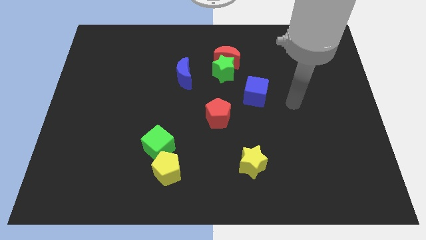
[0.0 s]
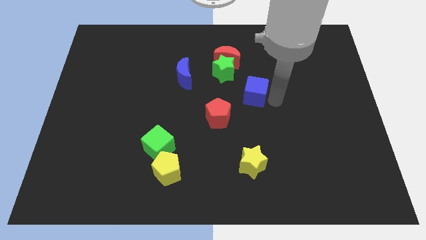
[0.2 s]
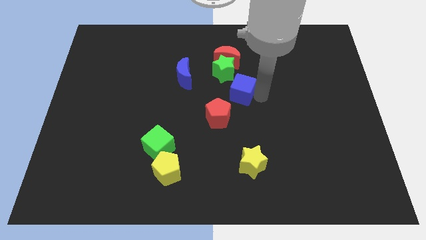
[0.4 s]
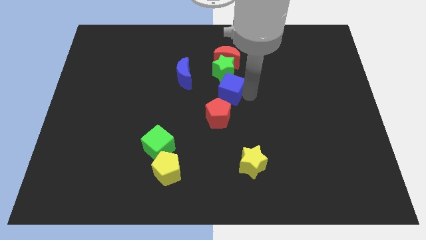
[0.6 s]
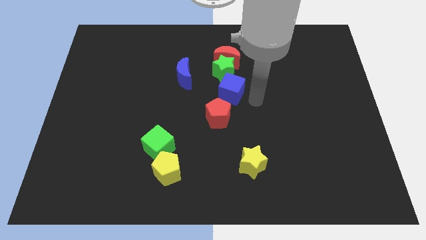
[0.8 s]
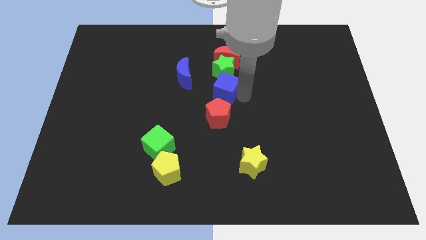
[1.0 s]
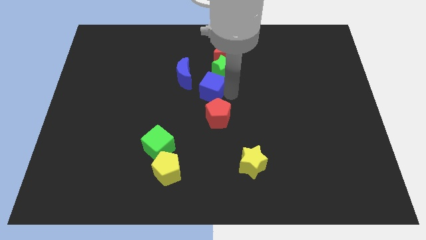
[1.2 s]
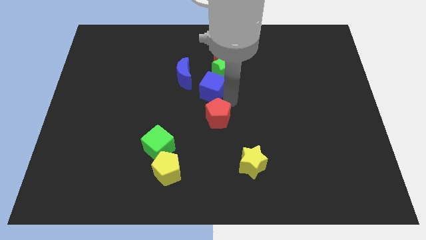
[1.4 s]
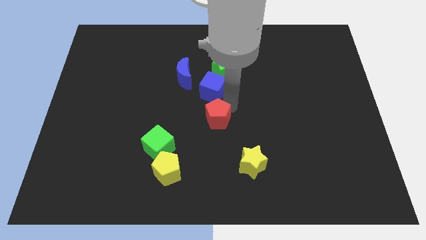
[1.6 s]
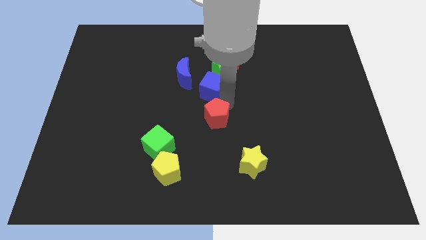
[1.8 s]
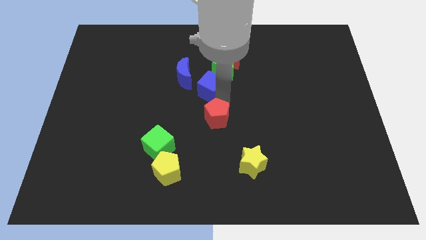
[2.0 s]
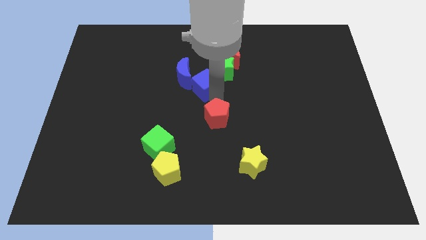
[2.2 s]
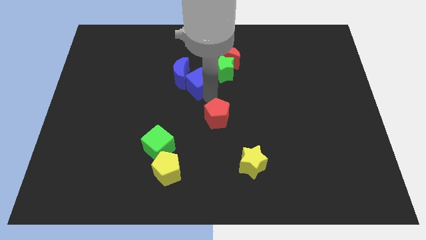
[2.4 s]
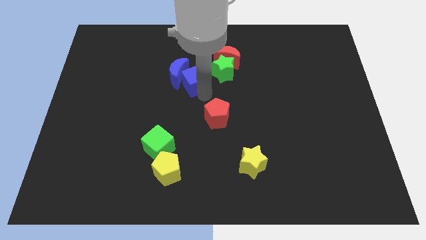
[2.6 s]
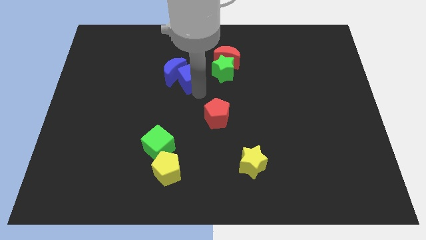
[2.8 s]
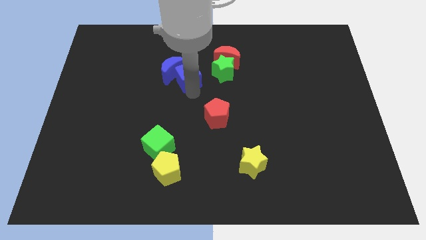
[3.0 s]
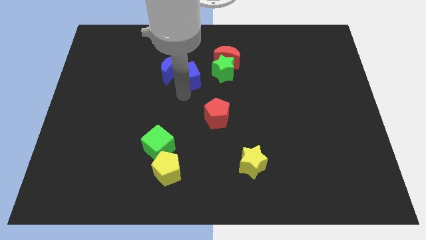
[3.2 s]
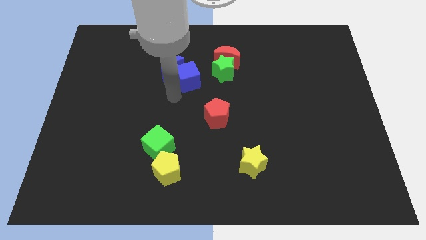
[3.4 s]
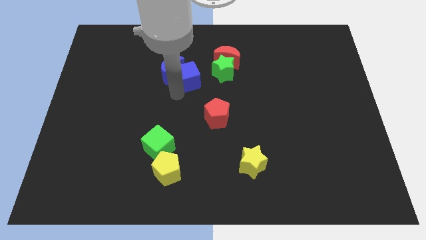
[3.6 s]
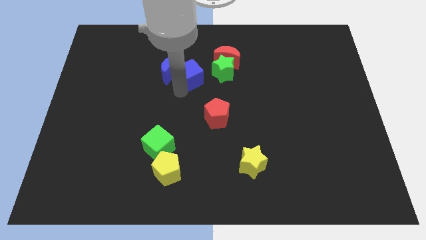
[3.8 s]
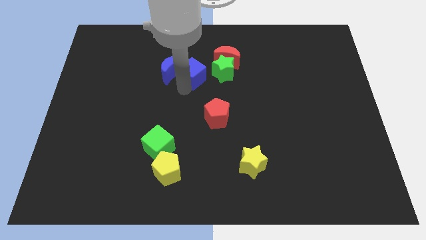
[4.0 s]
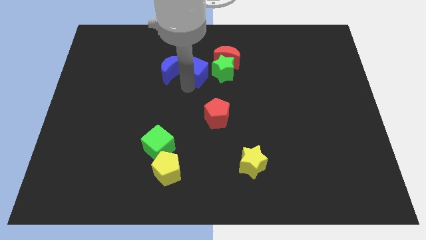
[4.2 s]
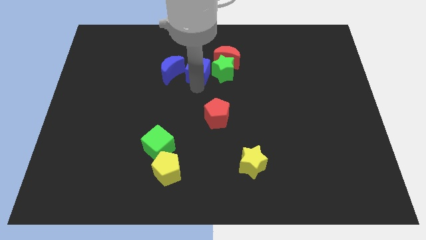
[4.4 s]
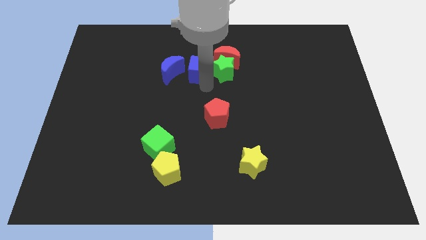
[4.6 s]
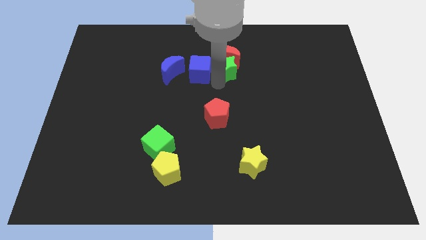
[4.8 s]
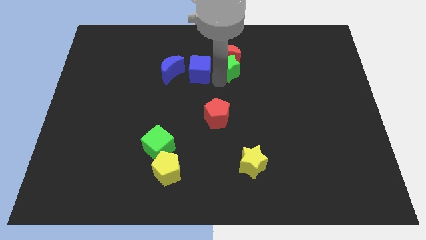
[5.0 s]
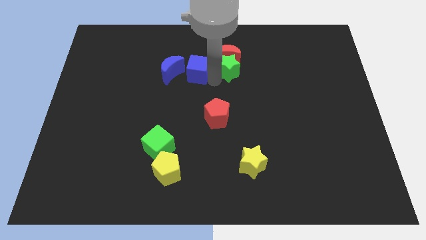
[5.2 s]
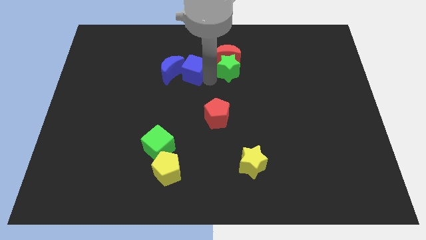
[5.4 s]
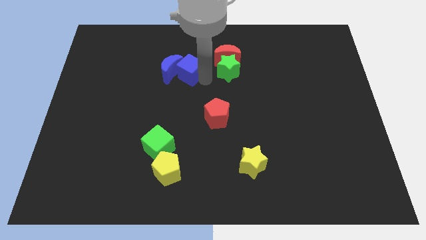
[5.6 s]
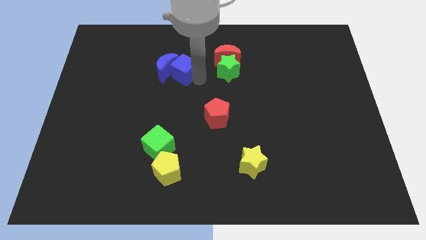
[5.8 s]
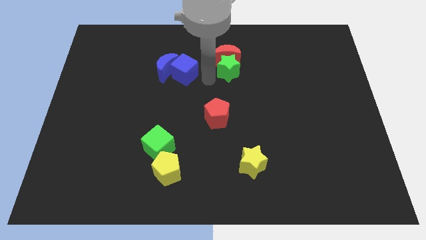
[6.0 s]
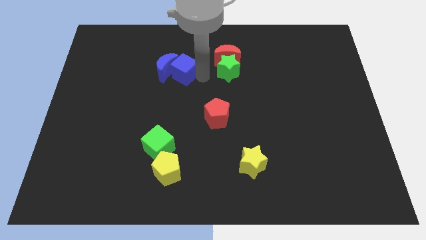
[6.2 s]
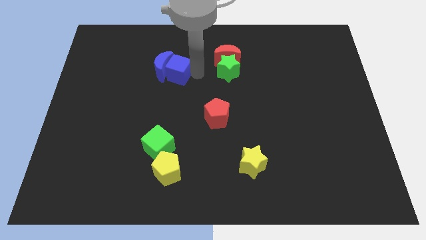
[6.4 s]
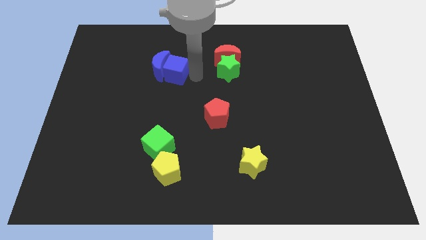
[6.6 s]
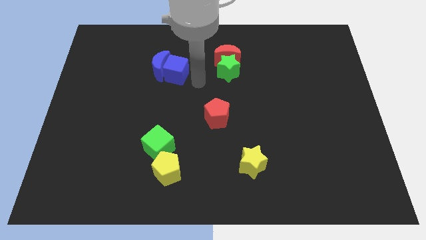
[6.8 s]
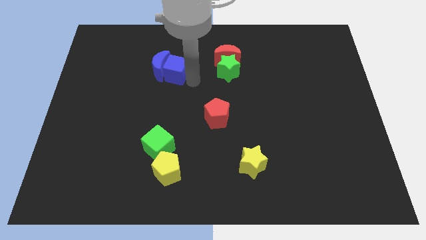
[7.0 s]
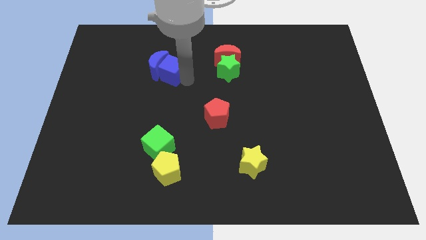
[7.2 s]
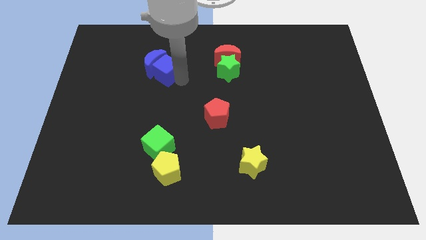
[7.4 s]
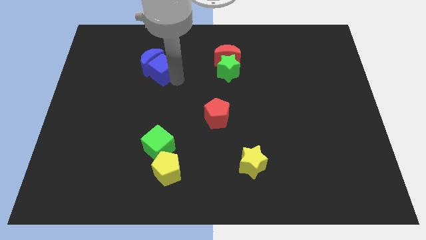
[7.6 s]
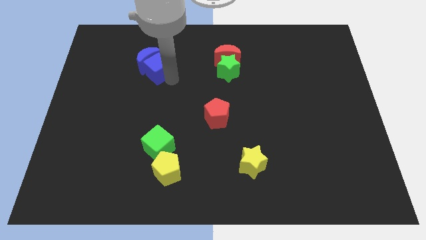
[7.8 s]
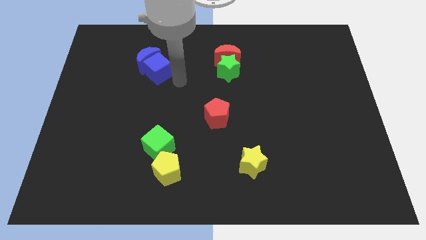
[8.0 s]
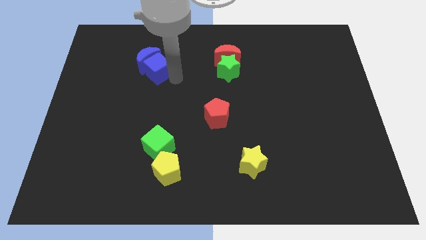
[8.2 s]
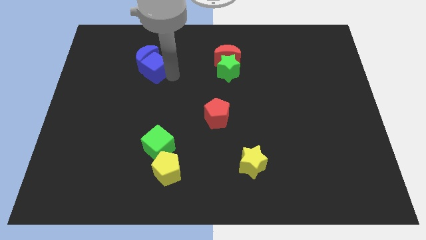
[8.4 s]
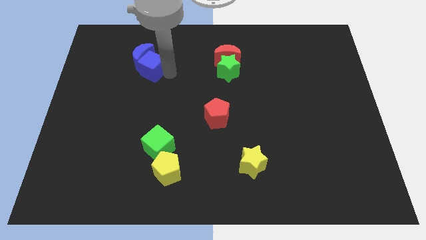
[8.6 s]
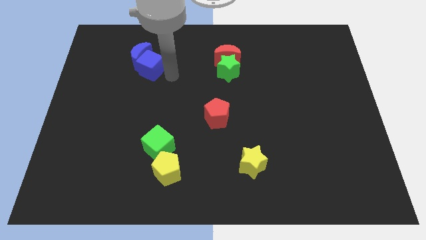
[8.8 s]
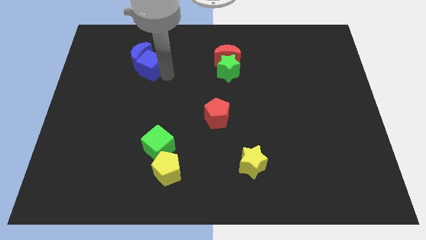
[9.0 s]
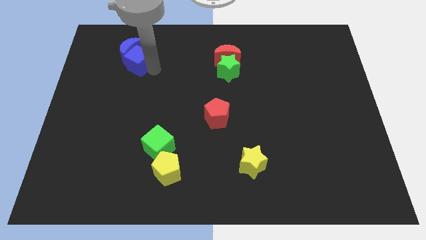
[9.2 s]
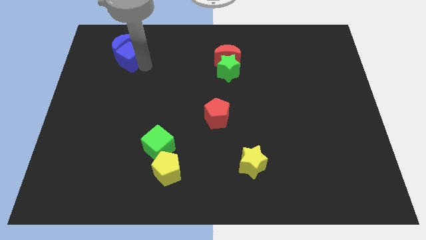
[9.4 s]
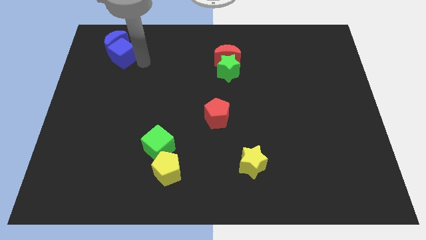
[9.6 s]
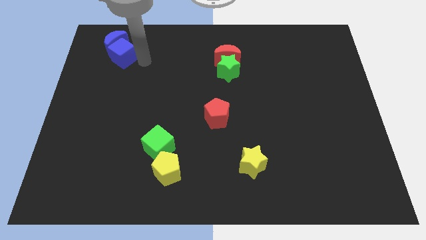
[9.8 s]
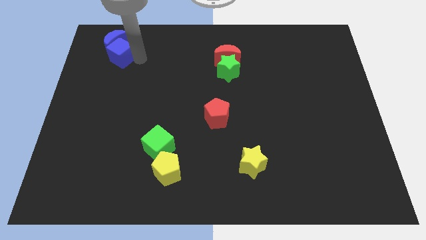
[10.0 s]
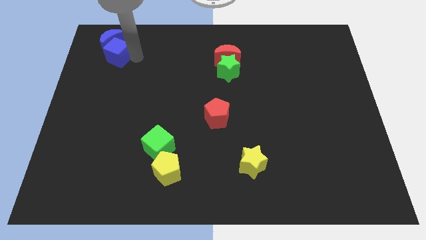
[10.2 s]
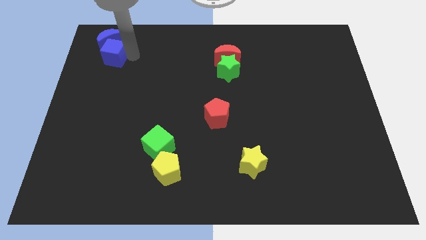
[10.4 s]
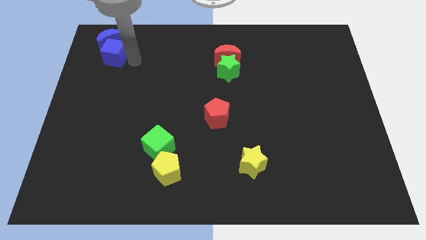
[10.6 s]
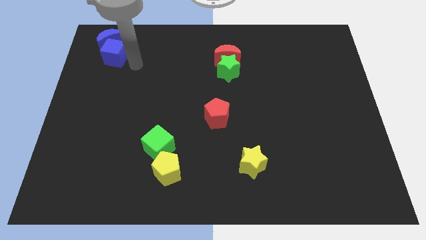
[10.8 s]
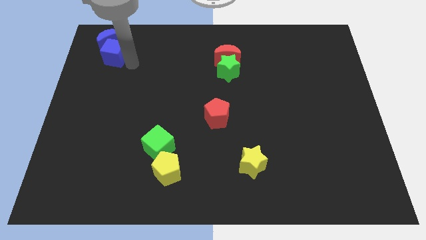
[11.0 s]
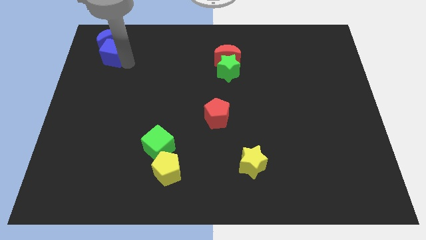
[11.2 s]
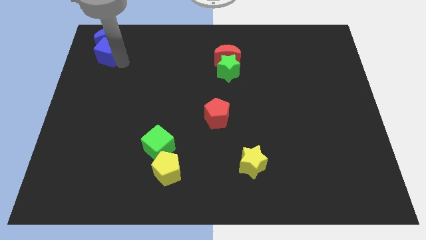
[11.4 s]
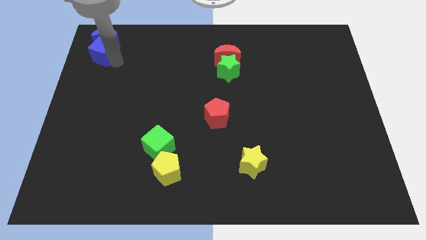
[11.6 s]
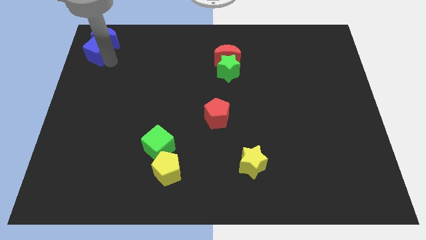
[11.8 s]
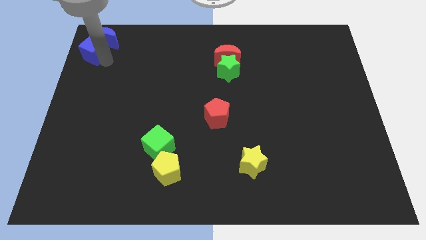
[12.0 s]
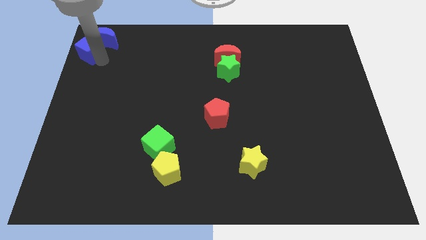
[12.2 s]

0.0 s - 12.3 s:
slide the blue cube to the upper left corner

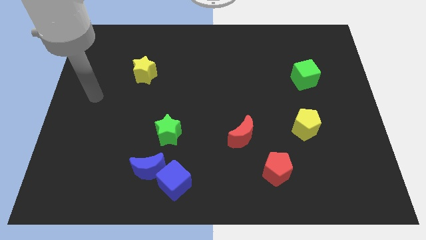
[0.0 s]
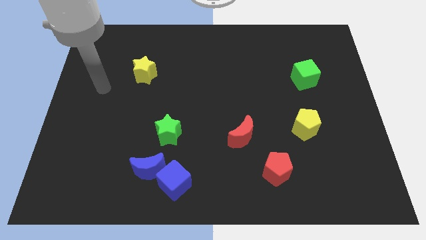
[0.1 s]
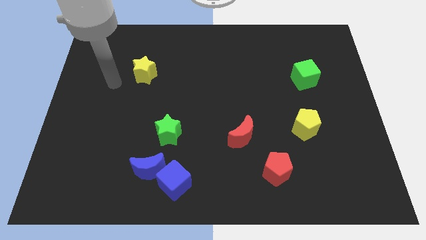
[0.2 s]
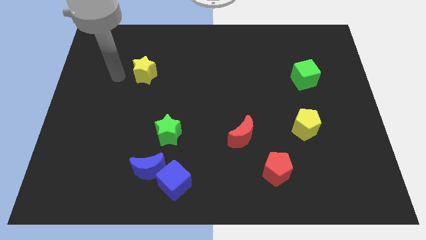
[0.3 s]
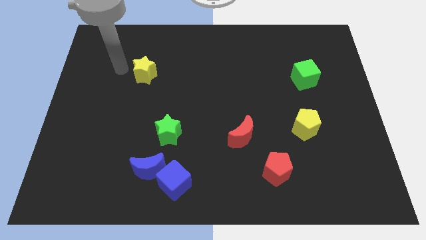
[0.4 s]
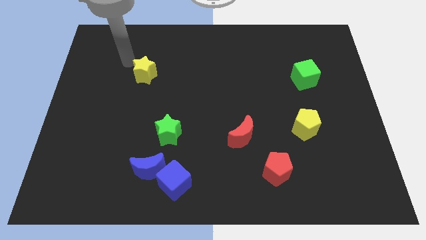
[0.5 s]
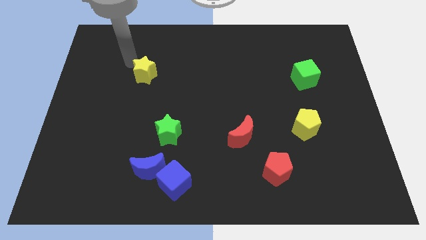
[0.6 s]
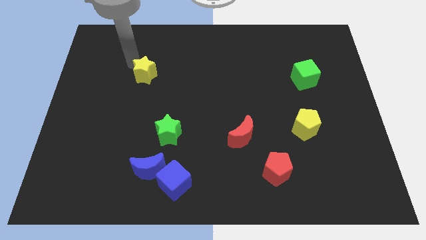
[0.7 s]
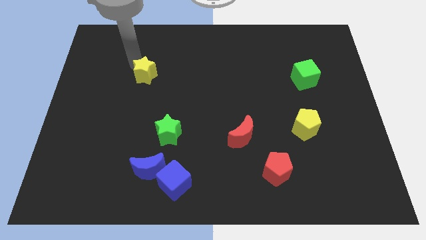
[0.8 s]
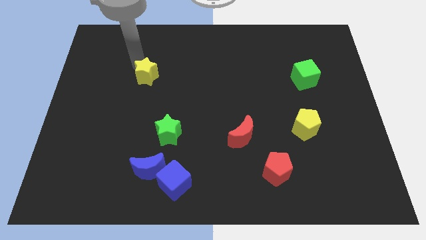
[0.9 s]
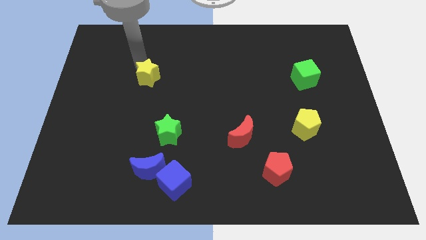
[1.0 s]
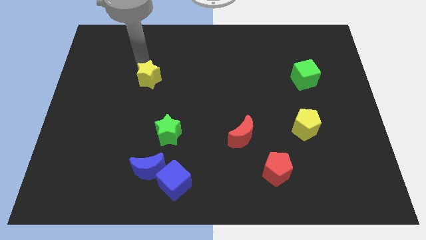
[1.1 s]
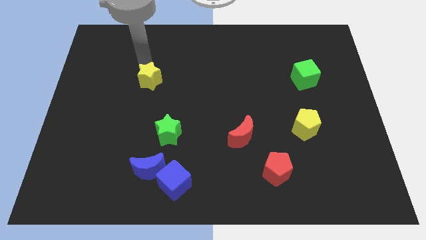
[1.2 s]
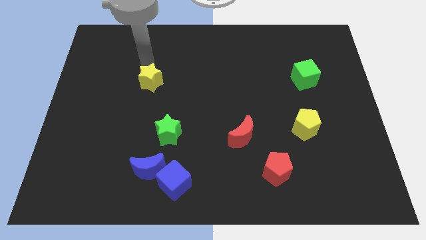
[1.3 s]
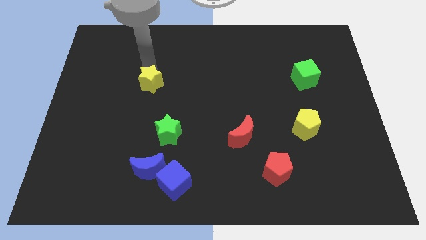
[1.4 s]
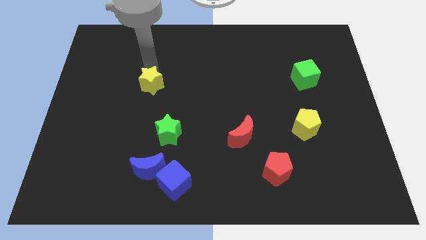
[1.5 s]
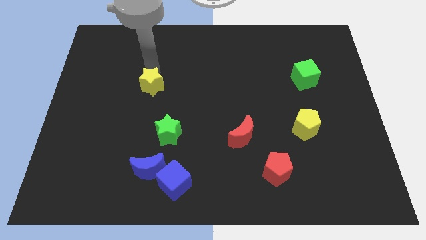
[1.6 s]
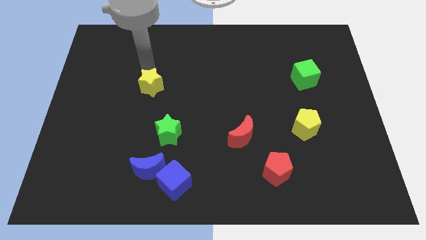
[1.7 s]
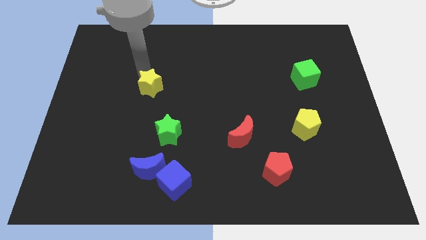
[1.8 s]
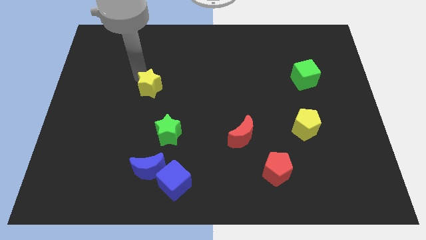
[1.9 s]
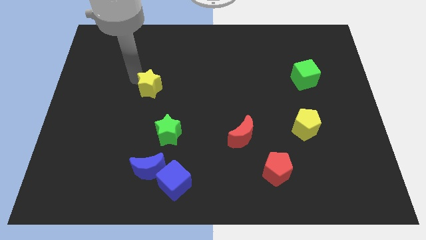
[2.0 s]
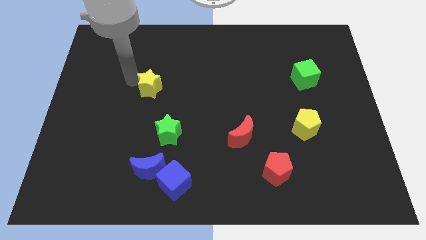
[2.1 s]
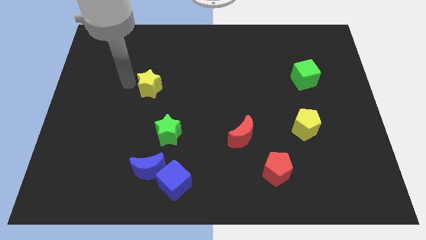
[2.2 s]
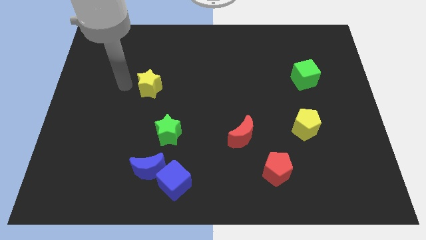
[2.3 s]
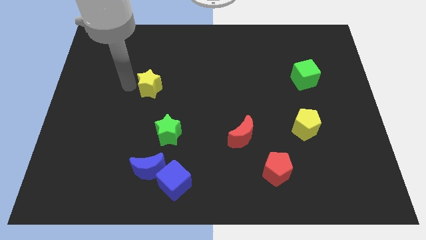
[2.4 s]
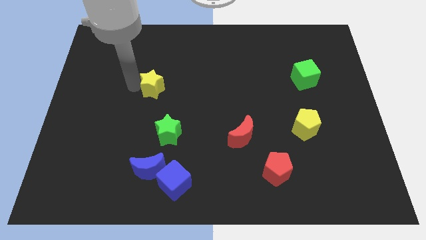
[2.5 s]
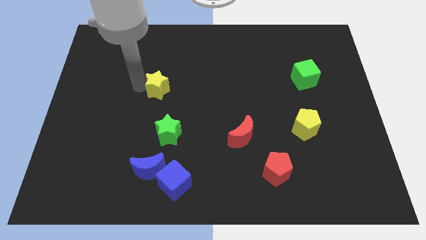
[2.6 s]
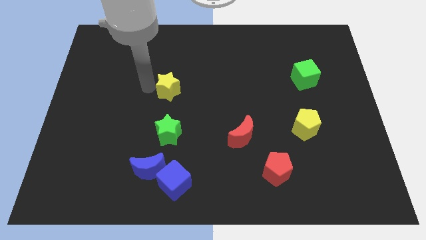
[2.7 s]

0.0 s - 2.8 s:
move the yellow star to the center of the board
